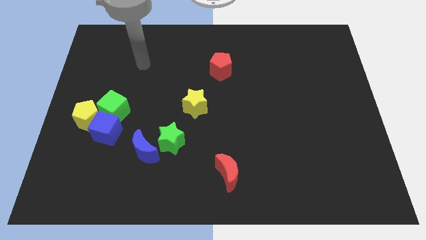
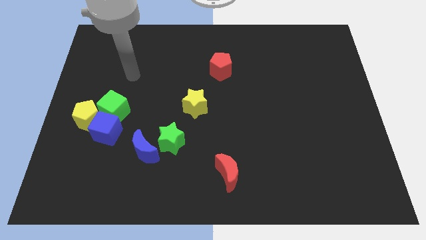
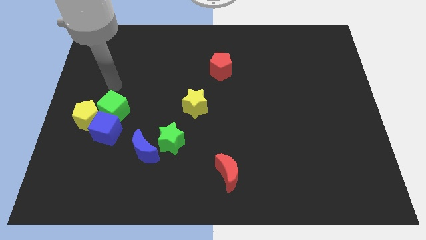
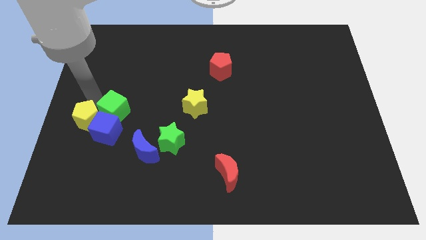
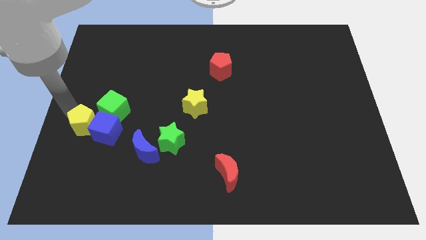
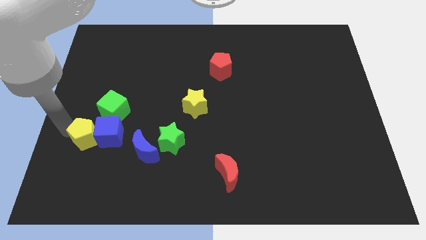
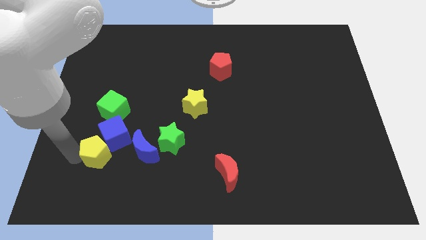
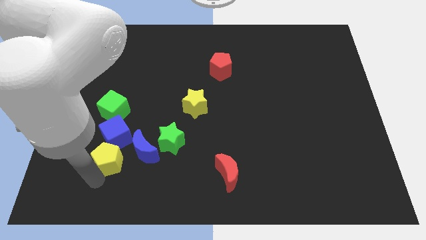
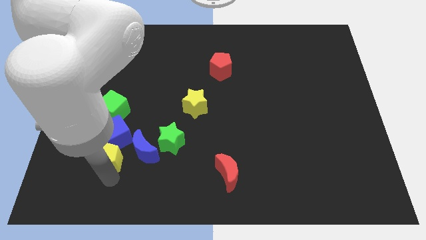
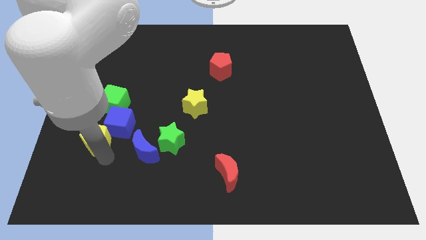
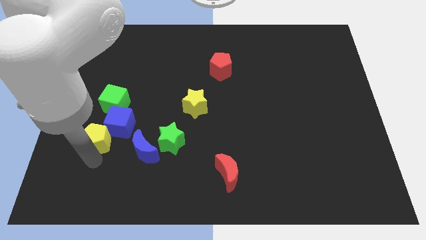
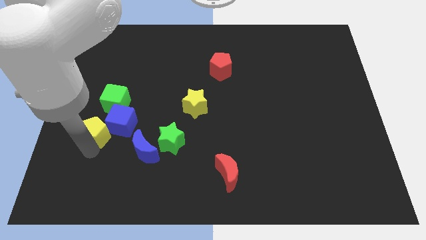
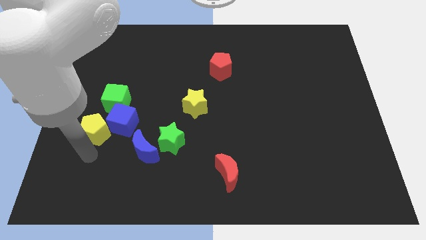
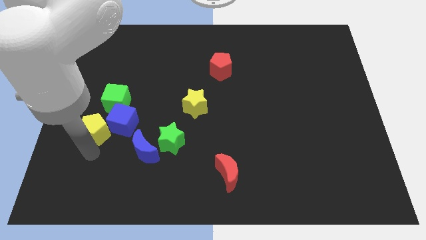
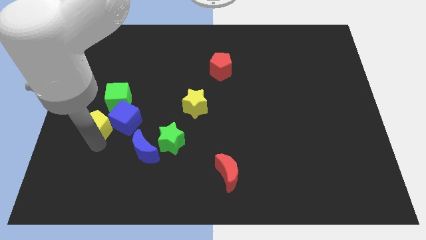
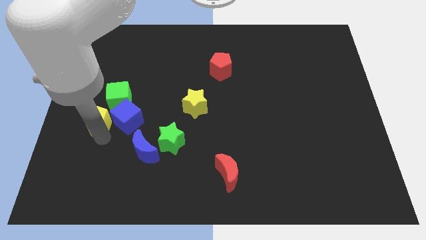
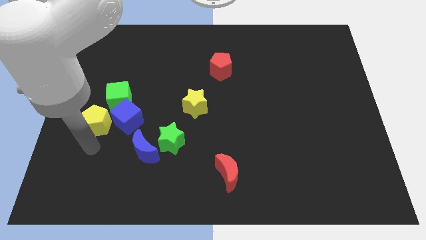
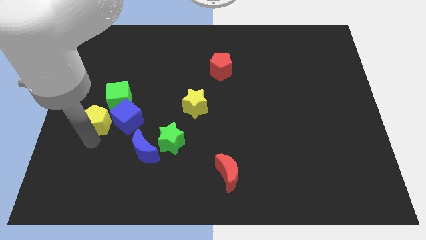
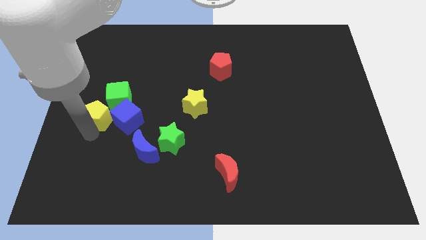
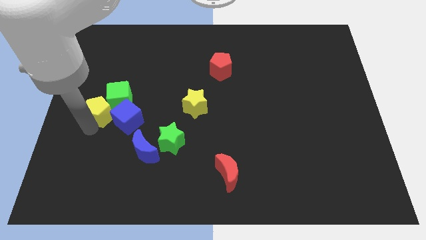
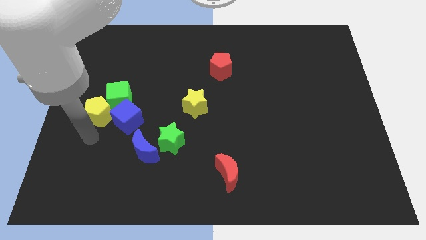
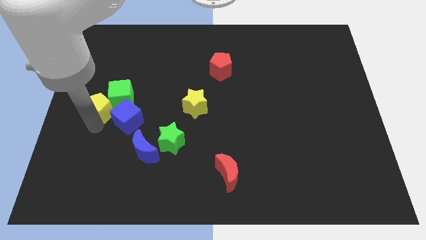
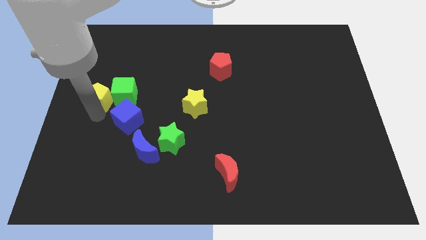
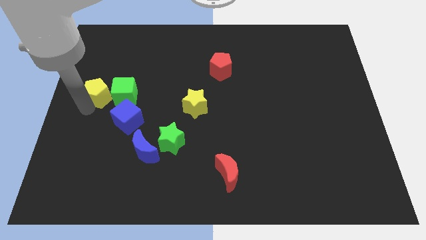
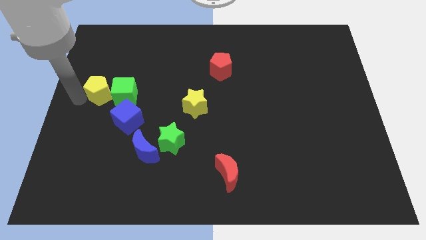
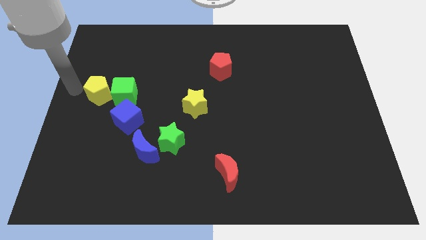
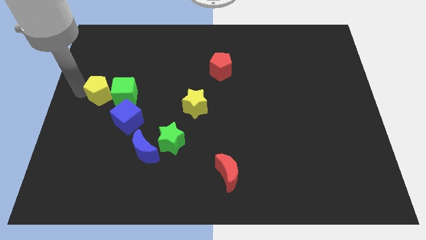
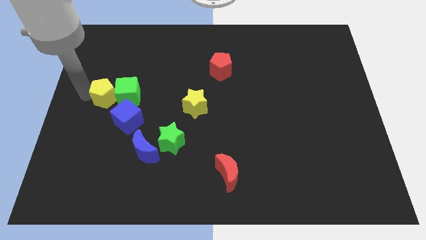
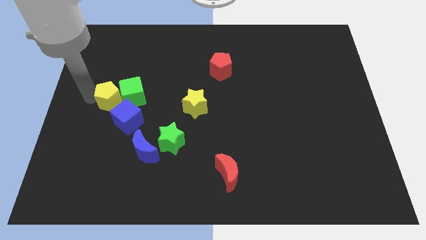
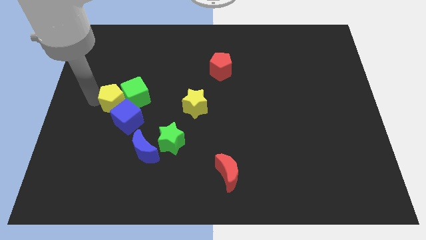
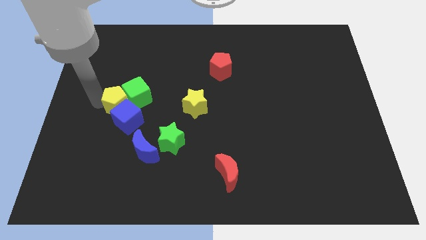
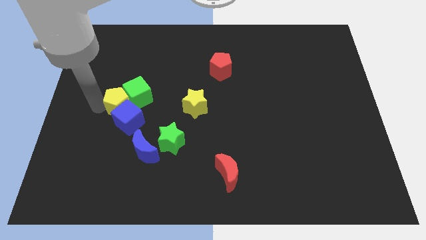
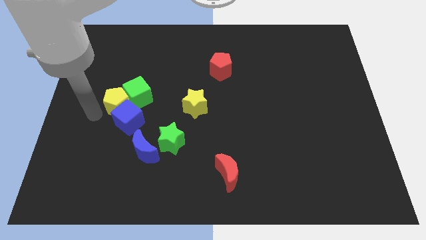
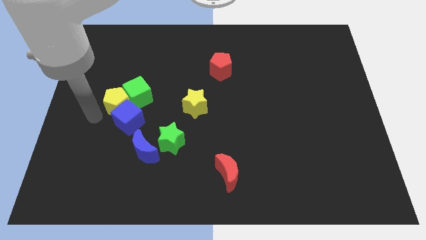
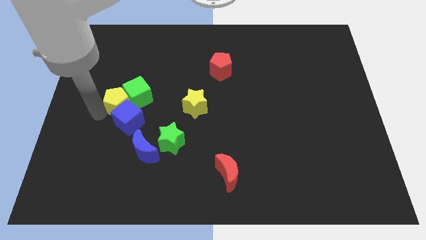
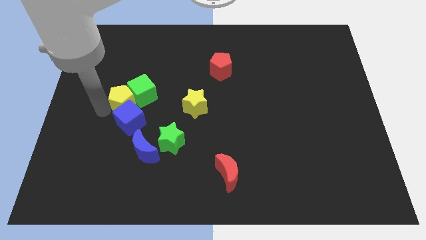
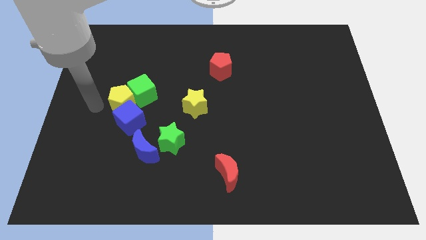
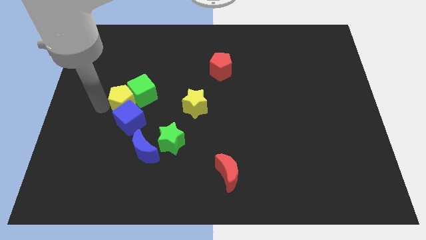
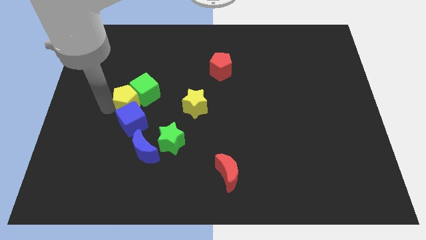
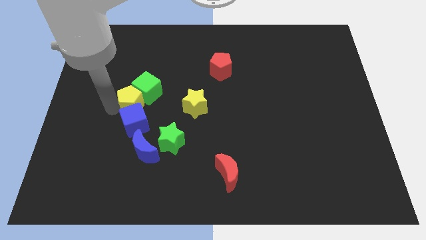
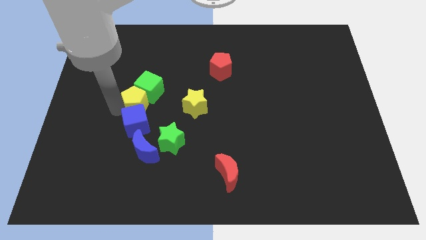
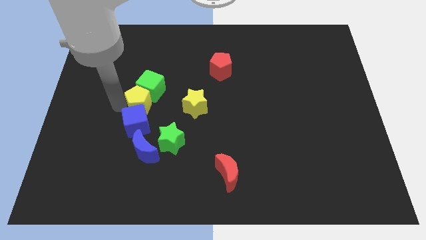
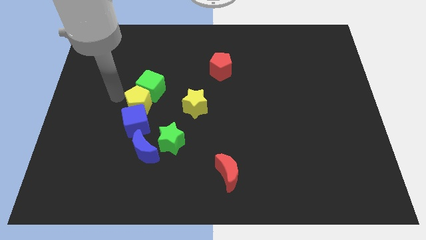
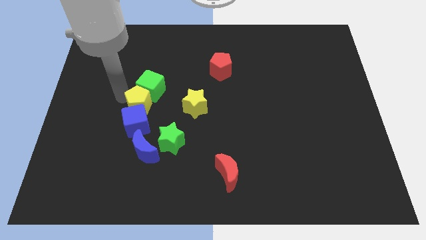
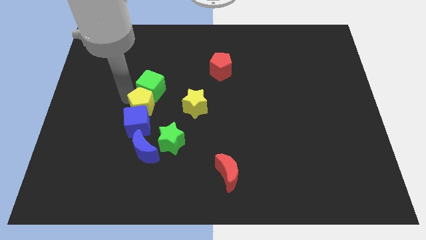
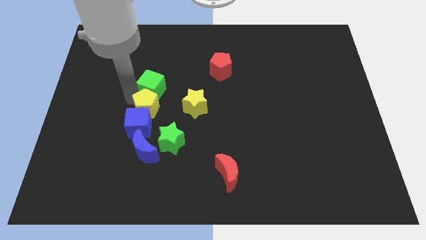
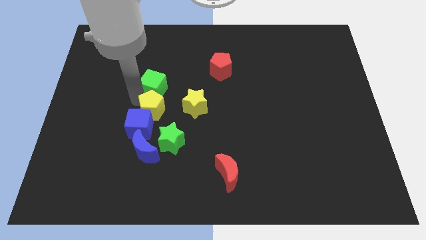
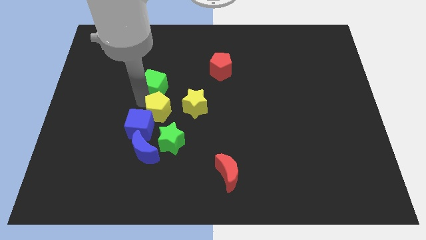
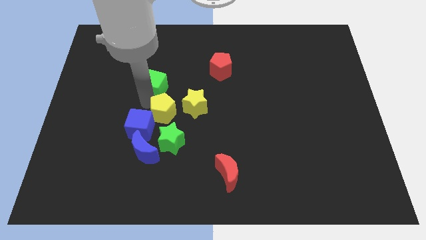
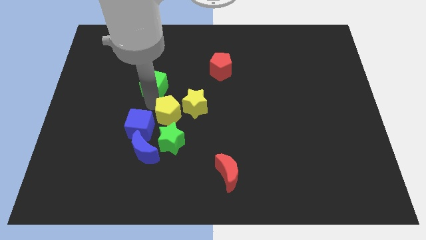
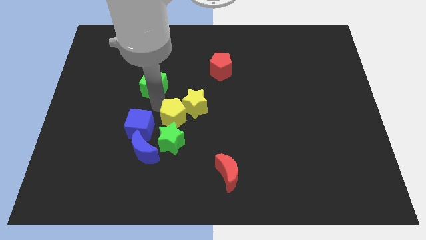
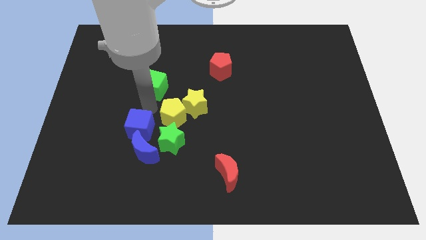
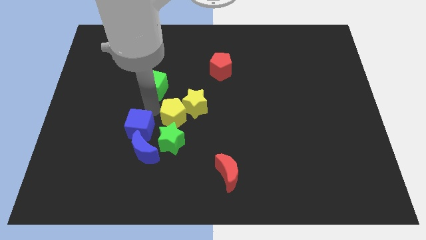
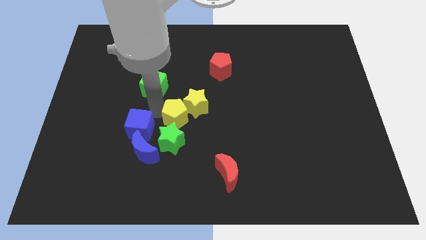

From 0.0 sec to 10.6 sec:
push the yellow pentagon to the right

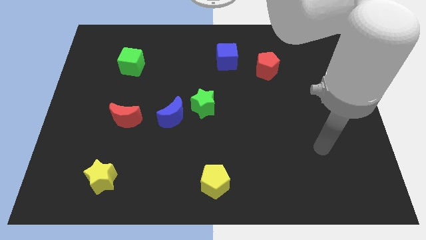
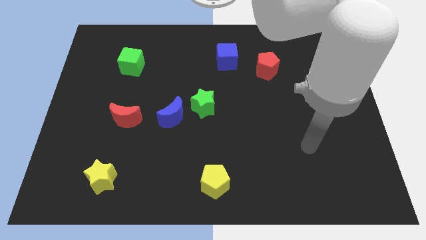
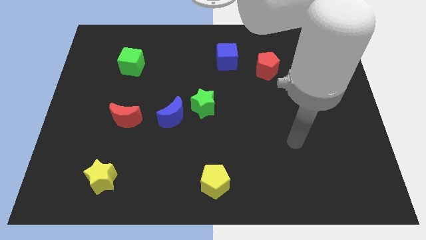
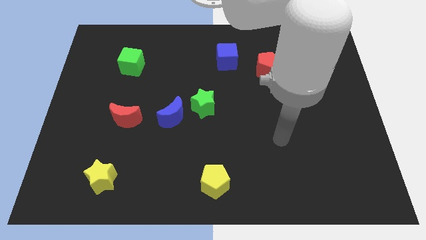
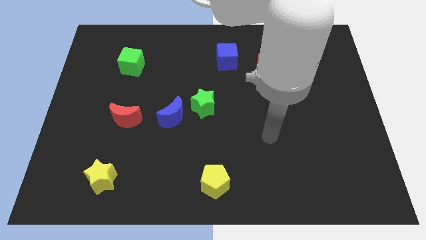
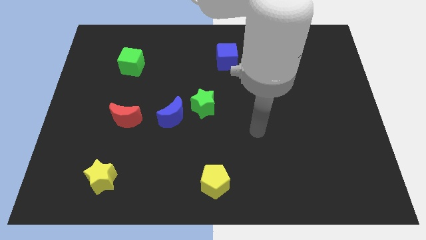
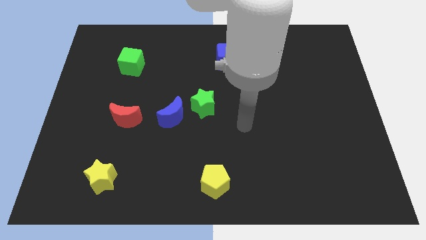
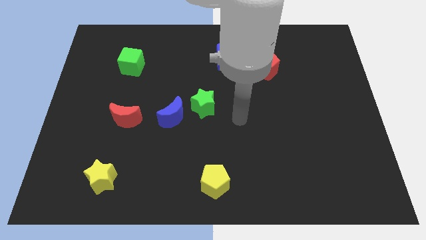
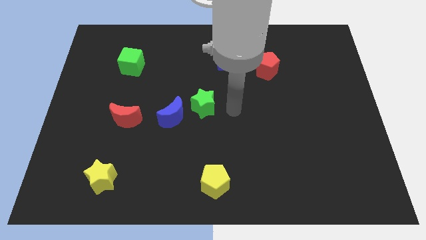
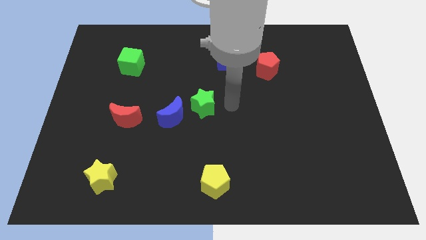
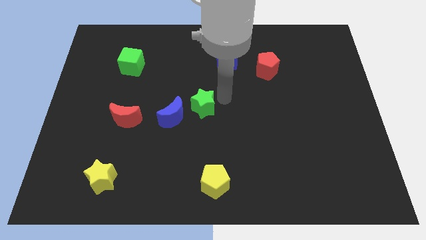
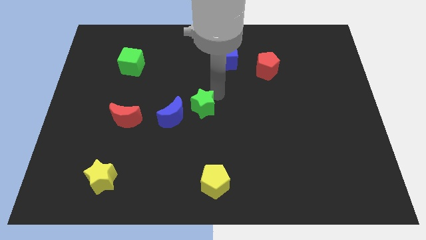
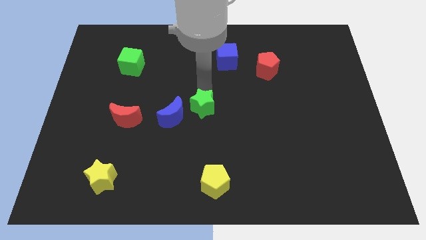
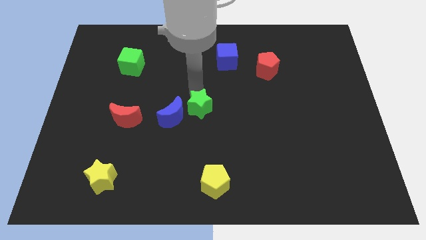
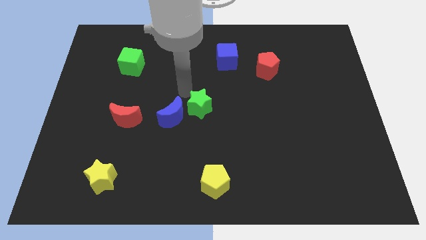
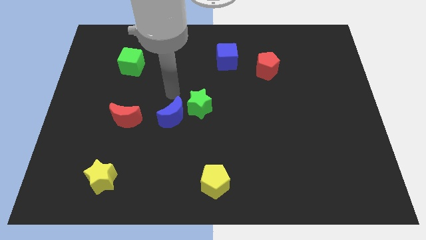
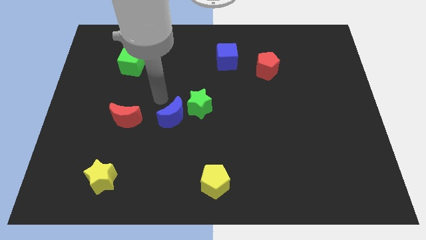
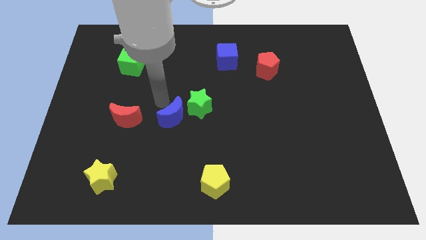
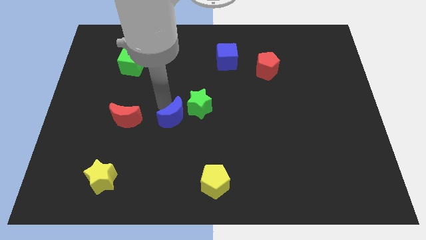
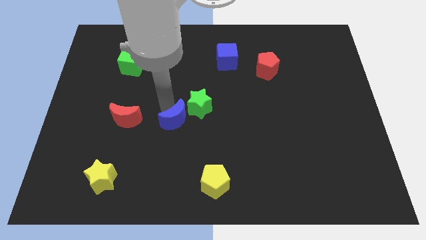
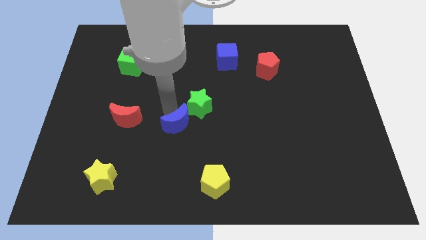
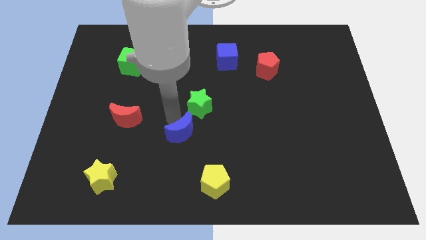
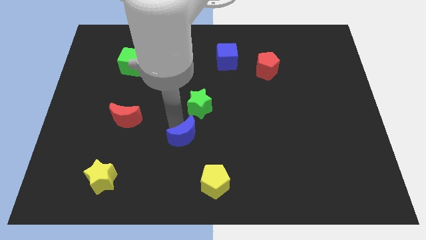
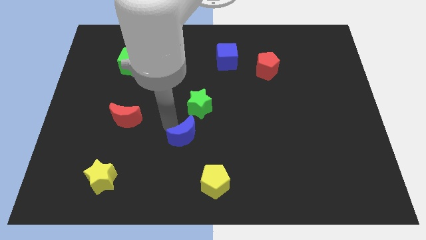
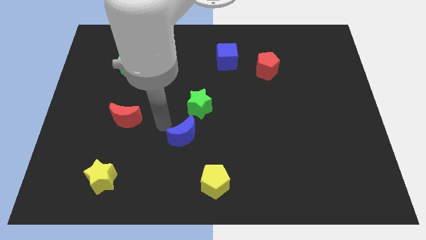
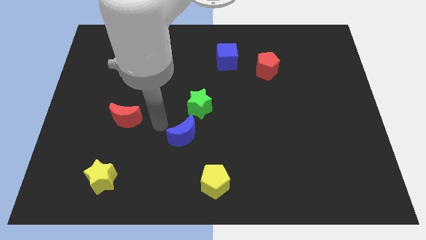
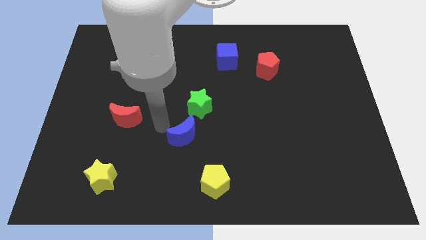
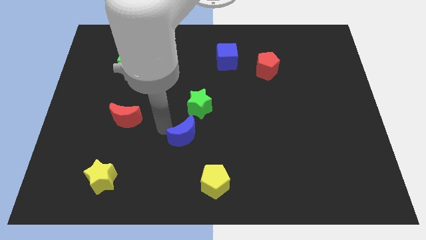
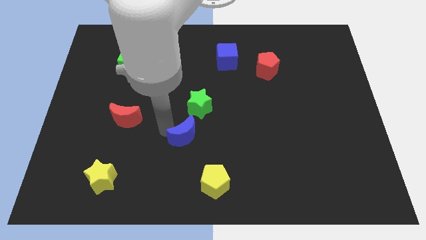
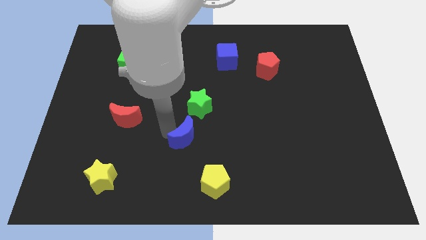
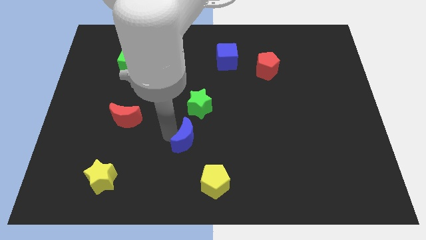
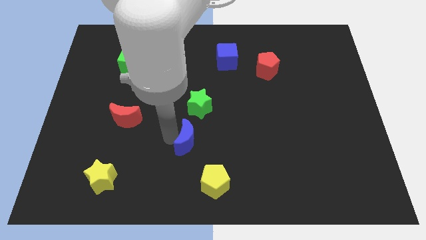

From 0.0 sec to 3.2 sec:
push the blue moon down and then to the right slightly
